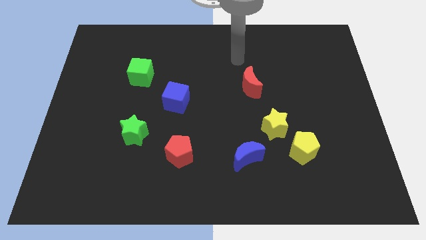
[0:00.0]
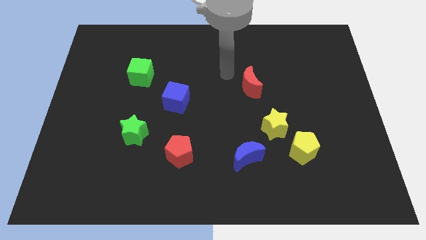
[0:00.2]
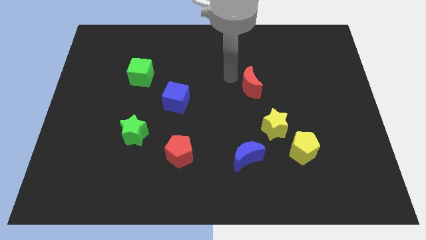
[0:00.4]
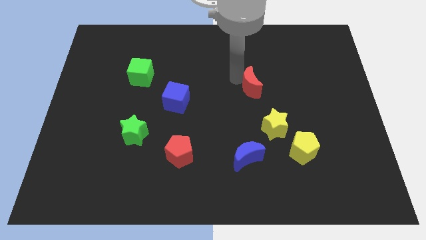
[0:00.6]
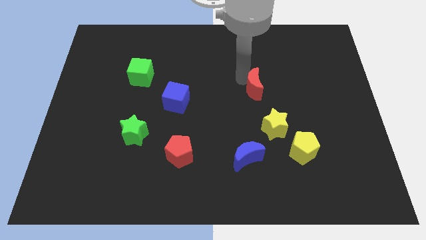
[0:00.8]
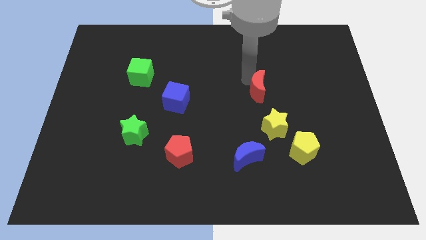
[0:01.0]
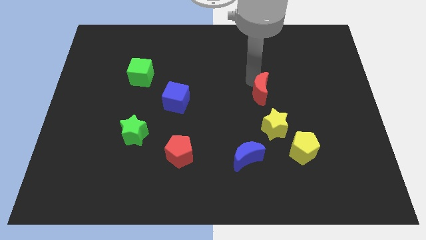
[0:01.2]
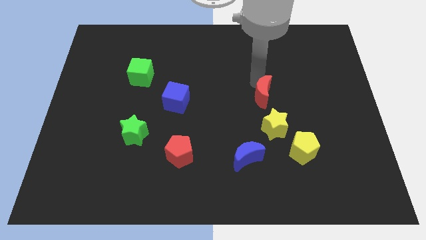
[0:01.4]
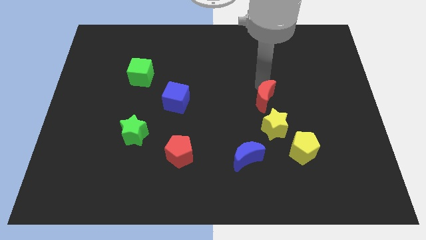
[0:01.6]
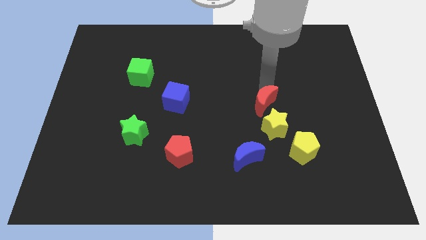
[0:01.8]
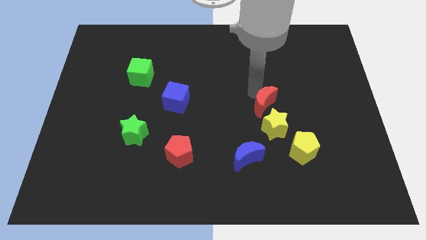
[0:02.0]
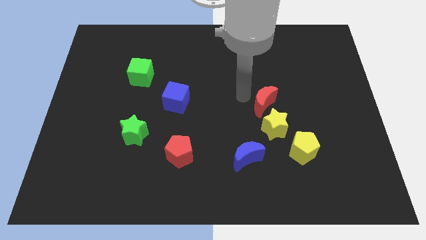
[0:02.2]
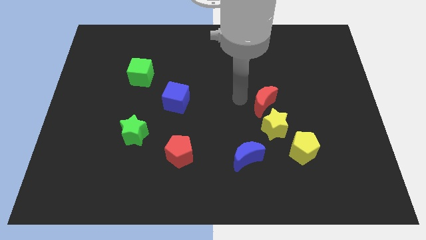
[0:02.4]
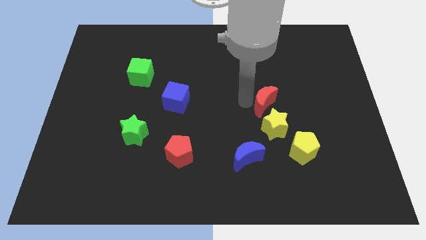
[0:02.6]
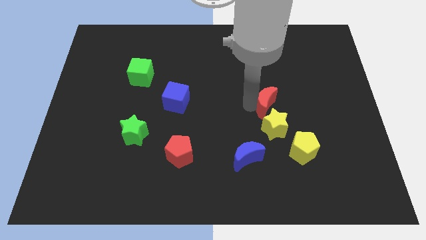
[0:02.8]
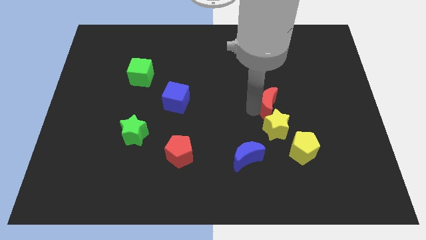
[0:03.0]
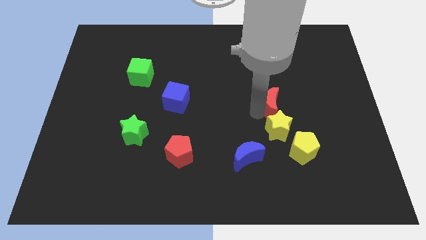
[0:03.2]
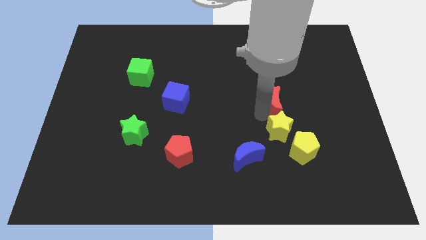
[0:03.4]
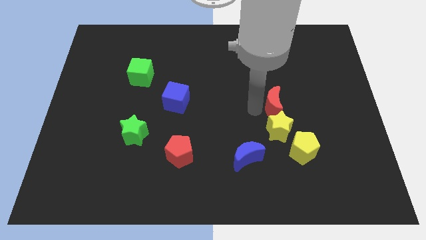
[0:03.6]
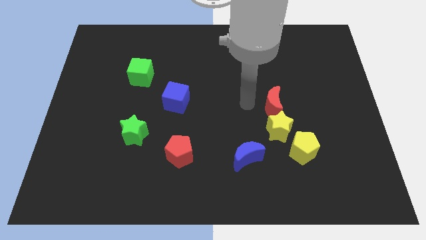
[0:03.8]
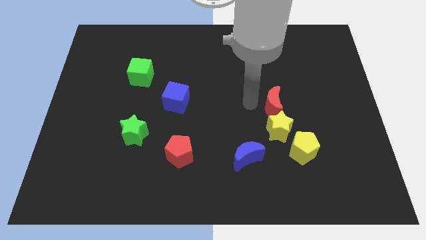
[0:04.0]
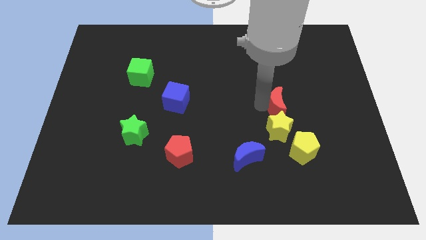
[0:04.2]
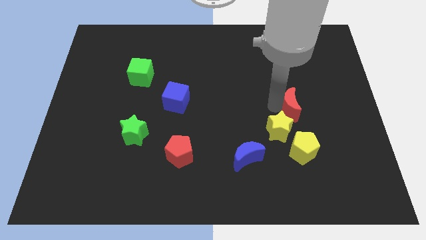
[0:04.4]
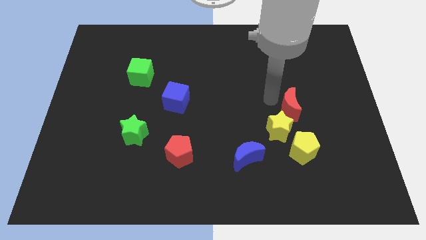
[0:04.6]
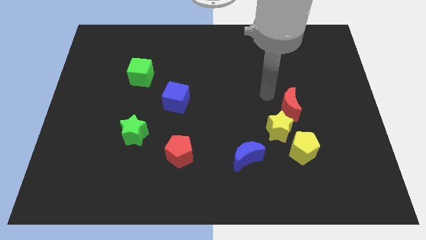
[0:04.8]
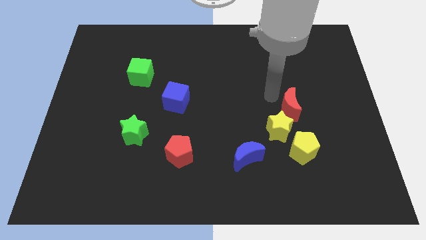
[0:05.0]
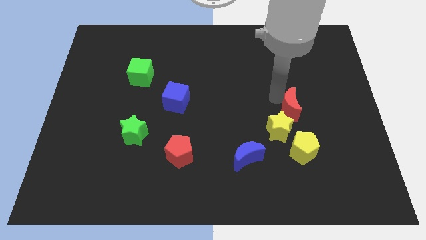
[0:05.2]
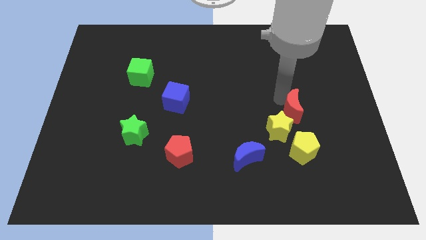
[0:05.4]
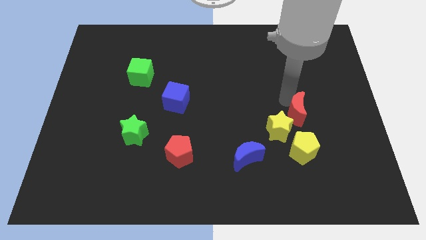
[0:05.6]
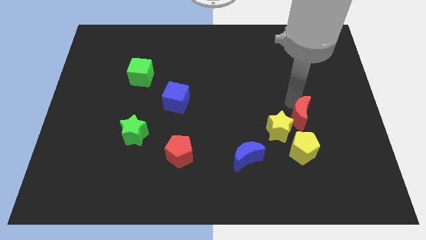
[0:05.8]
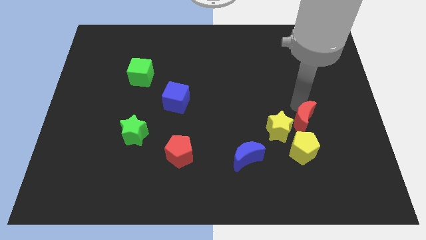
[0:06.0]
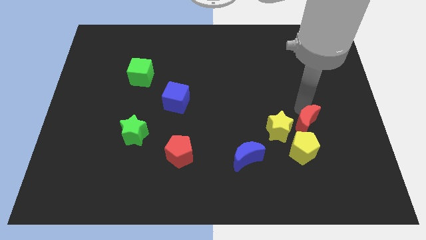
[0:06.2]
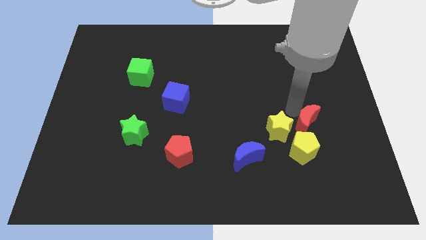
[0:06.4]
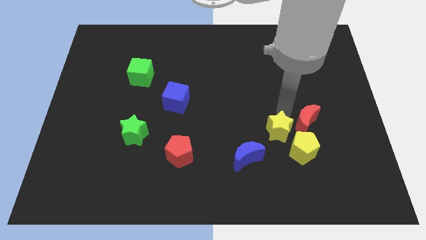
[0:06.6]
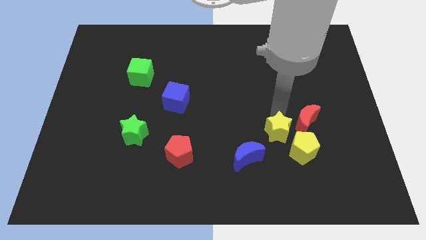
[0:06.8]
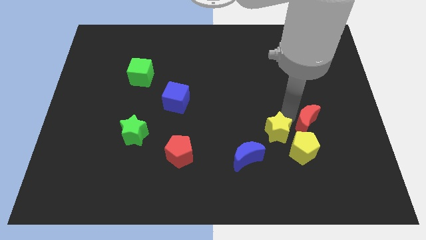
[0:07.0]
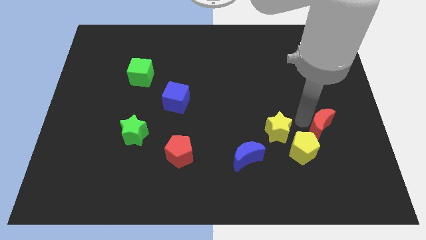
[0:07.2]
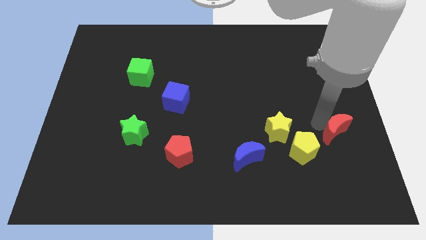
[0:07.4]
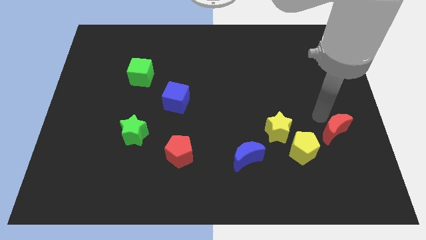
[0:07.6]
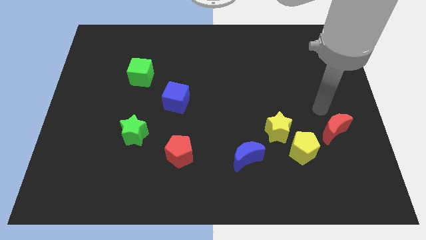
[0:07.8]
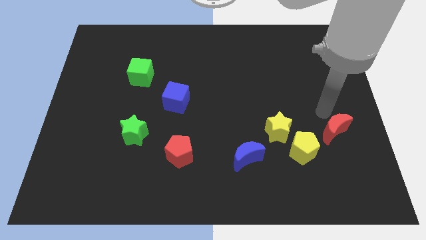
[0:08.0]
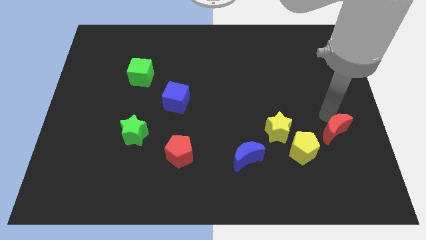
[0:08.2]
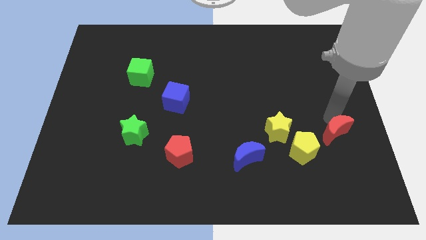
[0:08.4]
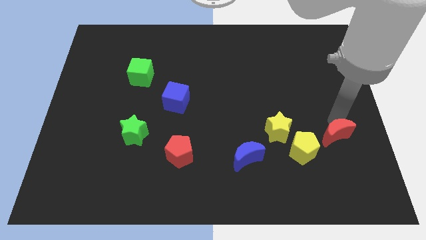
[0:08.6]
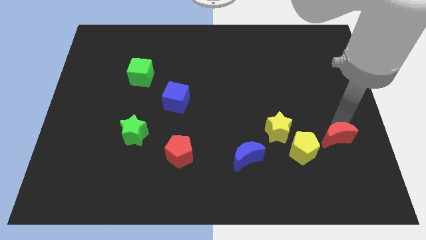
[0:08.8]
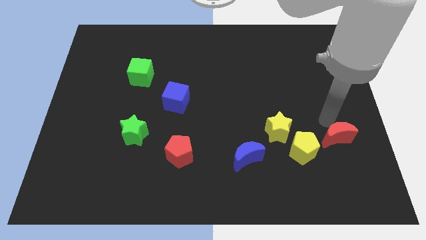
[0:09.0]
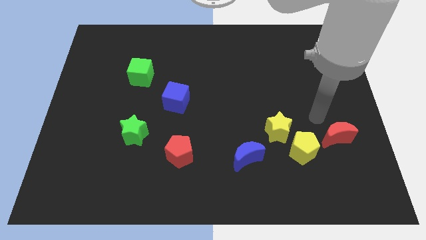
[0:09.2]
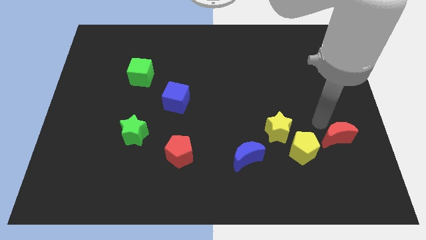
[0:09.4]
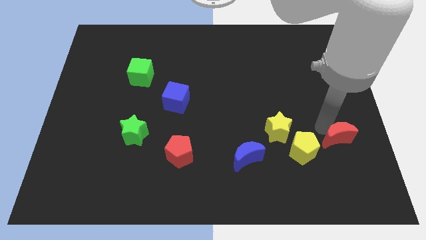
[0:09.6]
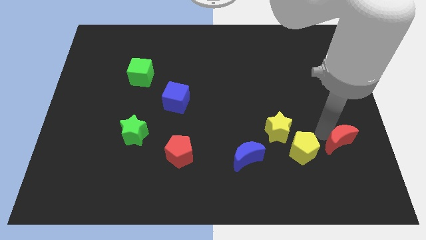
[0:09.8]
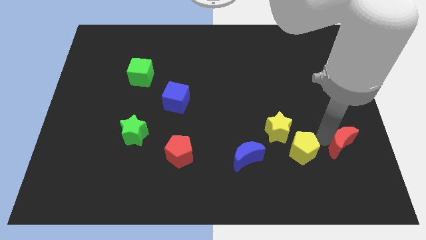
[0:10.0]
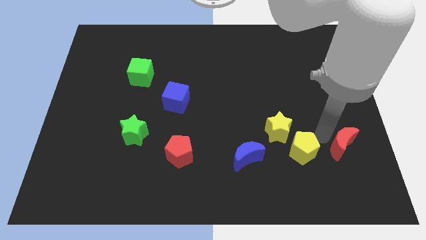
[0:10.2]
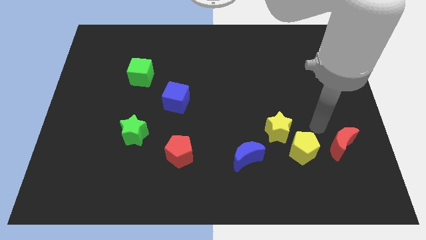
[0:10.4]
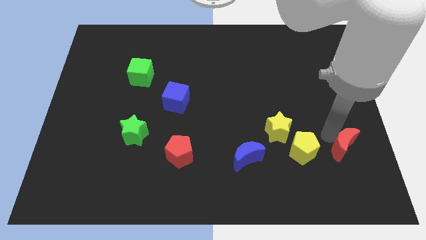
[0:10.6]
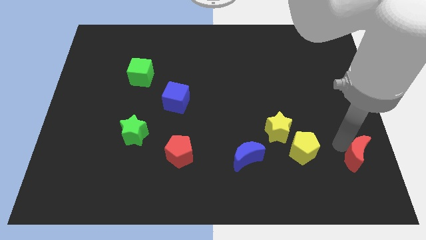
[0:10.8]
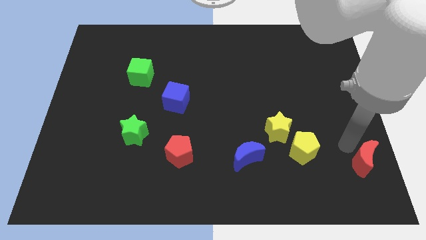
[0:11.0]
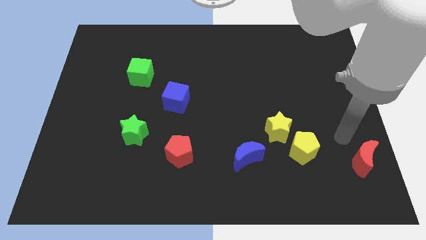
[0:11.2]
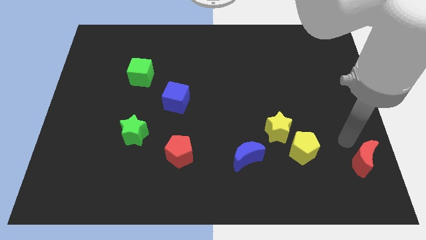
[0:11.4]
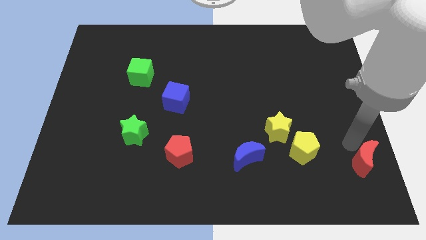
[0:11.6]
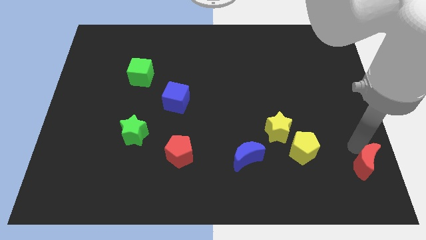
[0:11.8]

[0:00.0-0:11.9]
slide the red moon to the bottom right of the board
